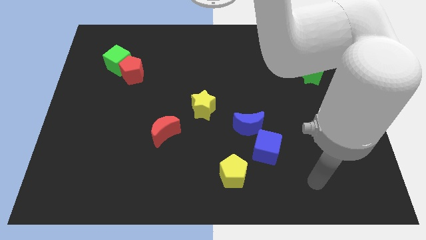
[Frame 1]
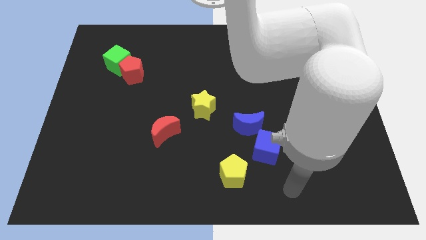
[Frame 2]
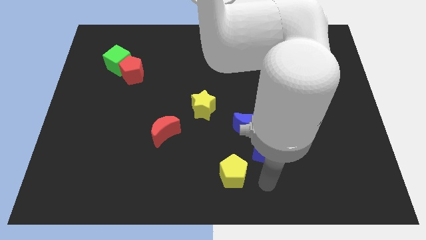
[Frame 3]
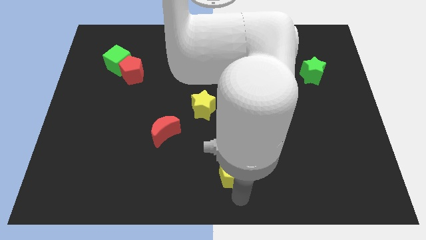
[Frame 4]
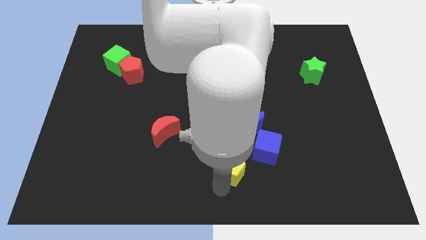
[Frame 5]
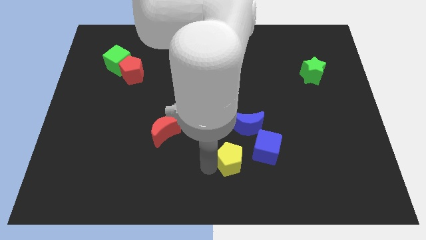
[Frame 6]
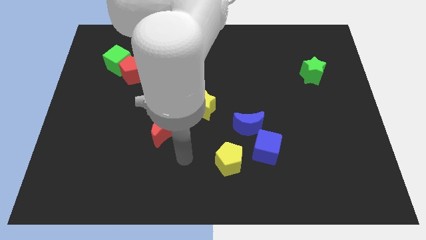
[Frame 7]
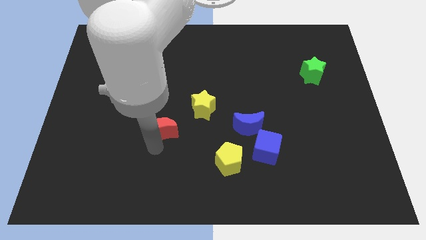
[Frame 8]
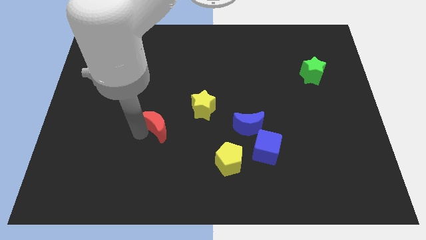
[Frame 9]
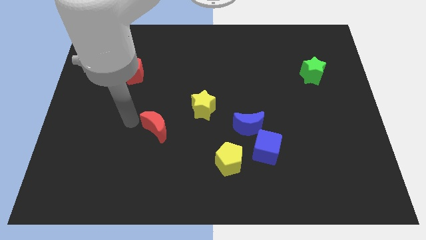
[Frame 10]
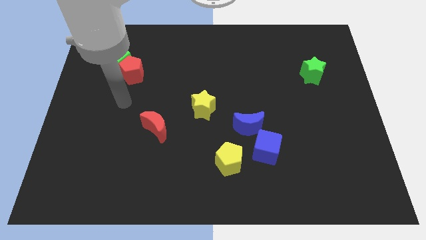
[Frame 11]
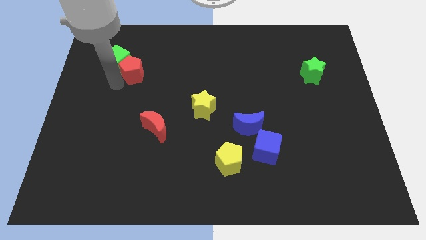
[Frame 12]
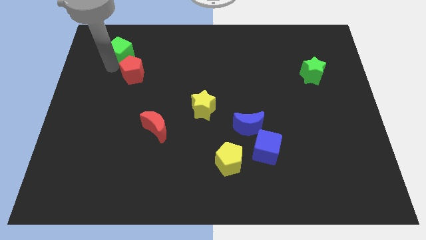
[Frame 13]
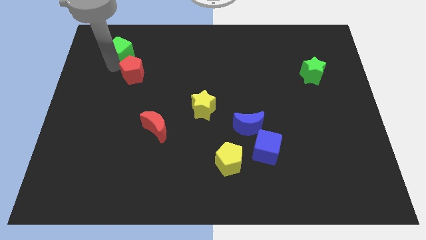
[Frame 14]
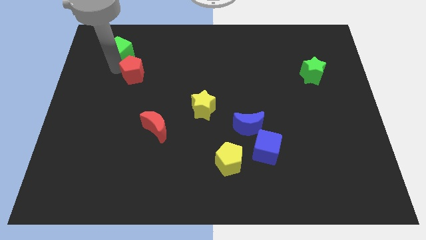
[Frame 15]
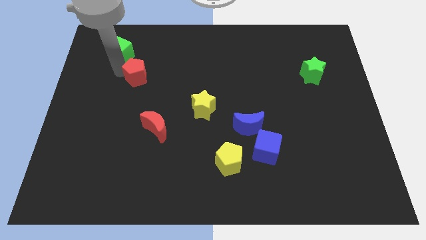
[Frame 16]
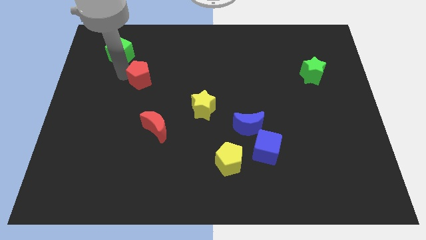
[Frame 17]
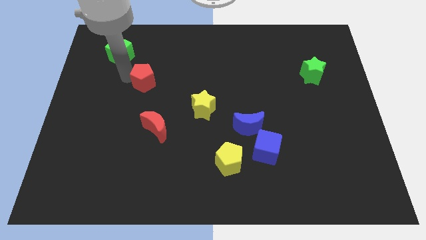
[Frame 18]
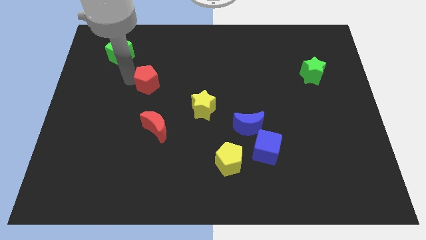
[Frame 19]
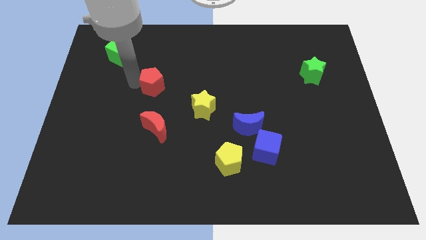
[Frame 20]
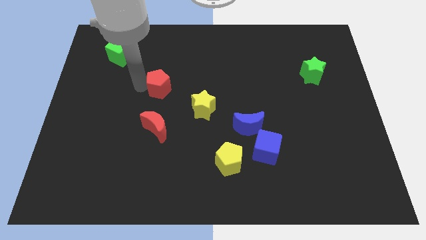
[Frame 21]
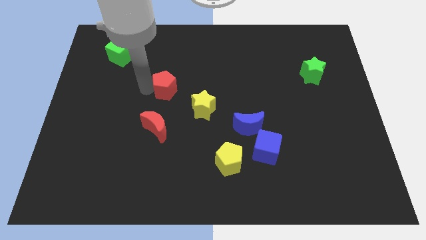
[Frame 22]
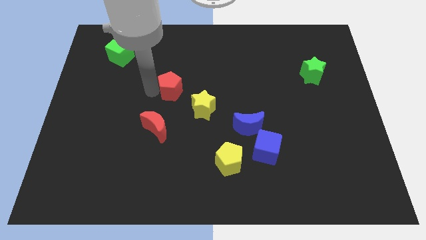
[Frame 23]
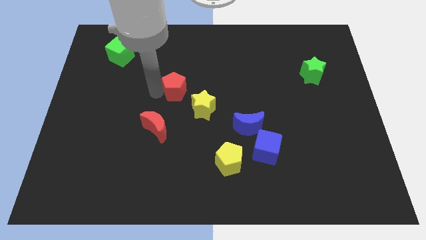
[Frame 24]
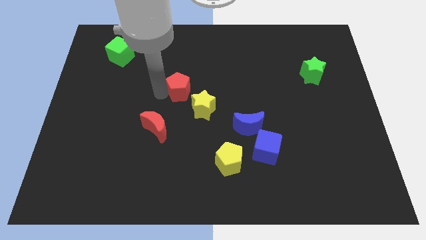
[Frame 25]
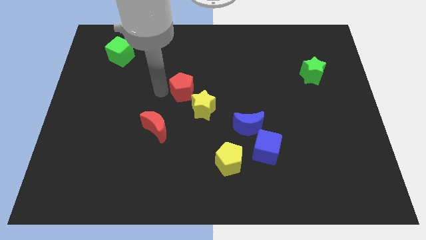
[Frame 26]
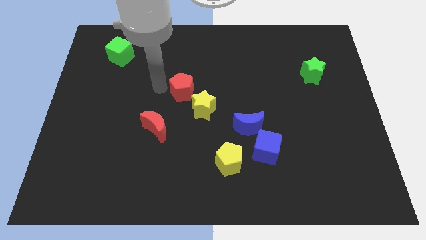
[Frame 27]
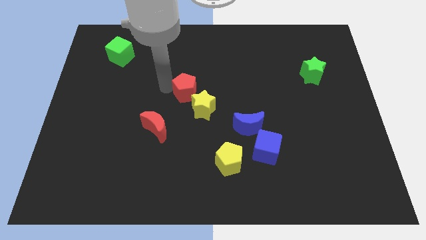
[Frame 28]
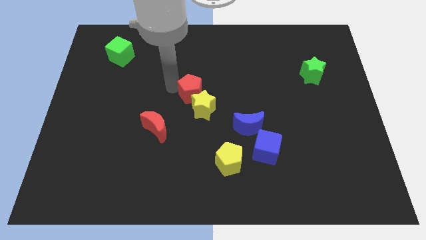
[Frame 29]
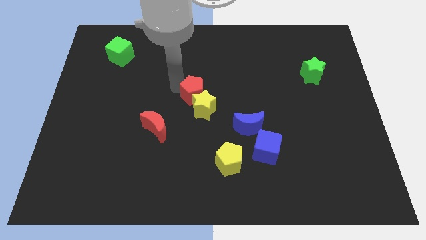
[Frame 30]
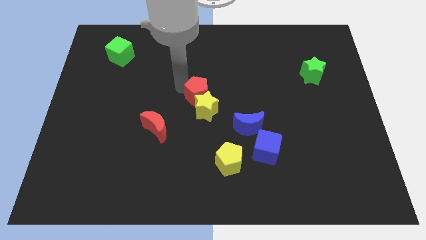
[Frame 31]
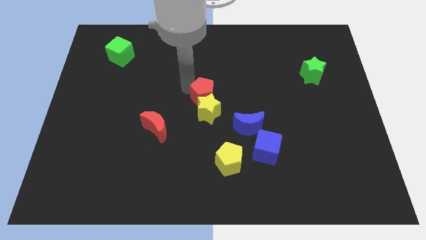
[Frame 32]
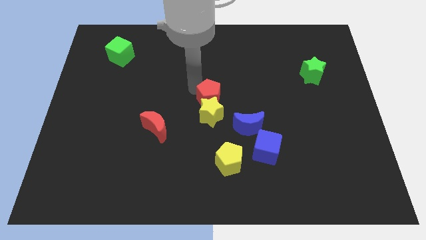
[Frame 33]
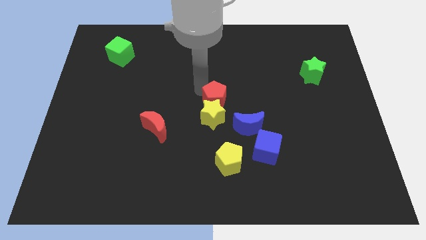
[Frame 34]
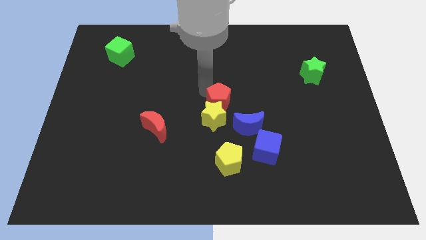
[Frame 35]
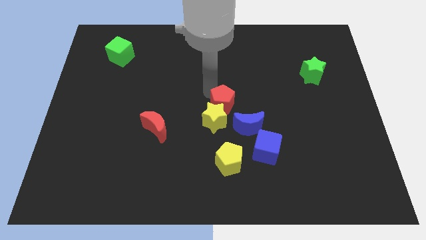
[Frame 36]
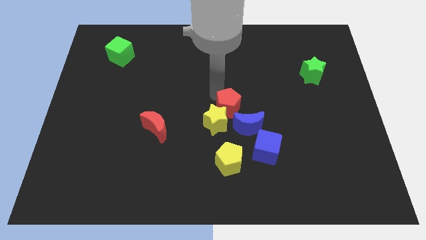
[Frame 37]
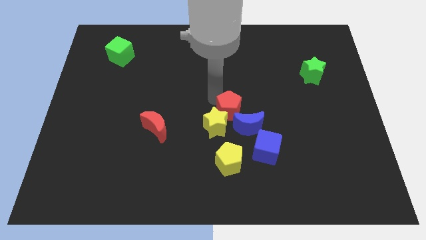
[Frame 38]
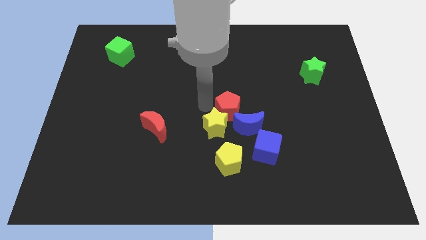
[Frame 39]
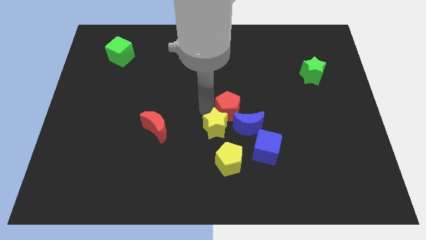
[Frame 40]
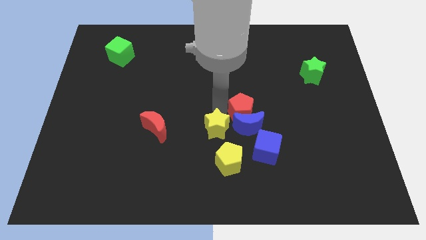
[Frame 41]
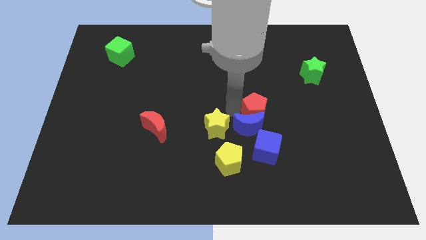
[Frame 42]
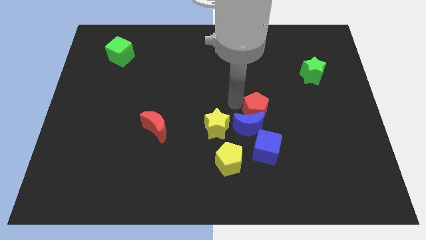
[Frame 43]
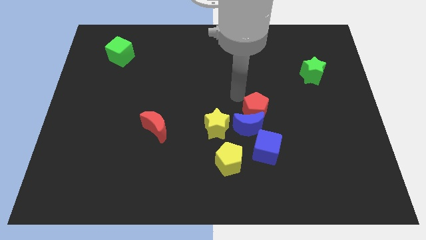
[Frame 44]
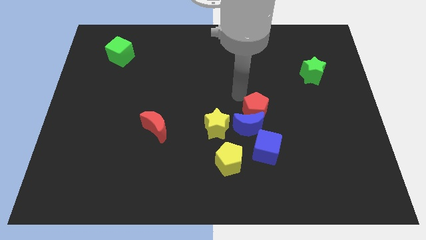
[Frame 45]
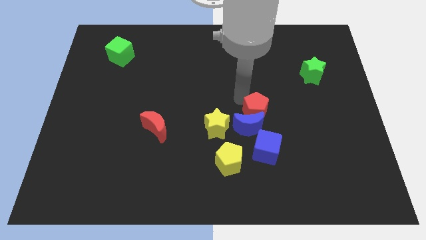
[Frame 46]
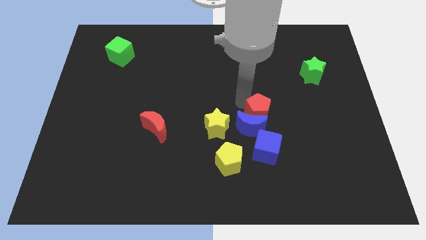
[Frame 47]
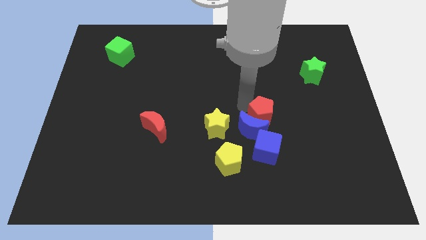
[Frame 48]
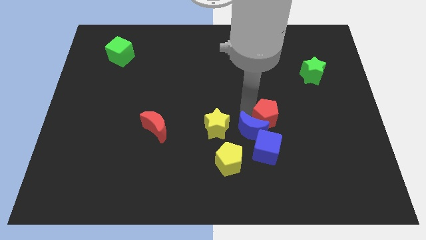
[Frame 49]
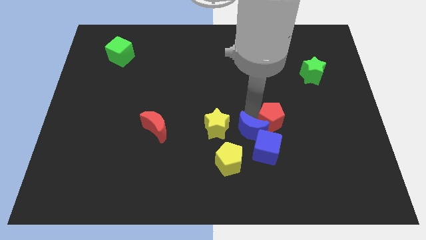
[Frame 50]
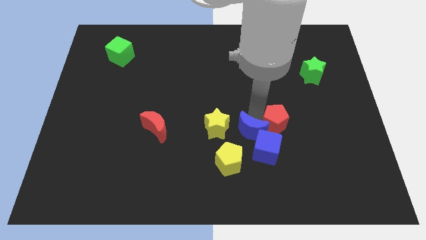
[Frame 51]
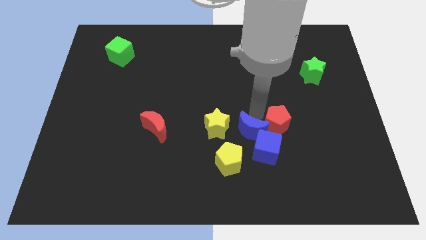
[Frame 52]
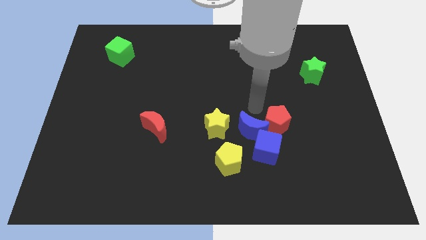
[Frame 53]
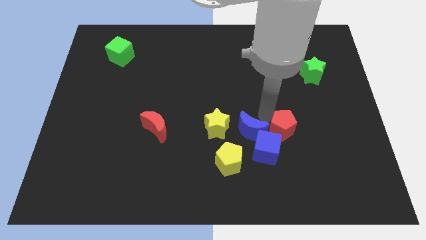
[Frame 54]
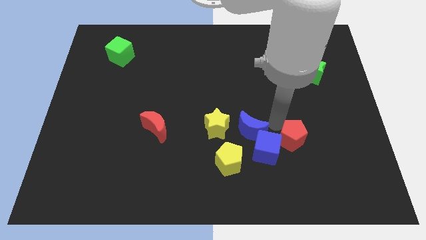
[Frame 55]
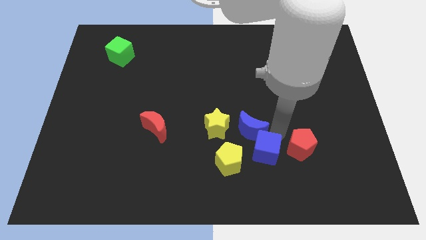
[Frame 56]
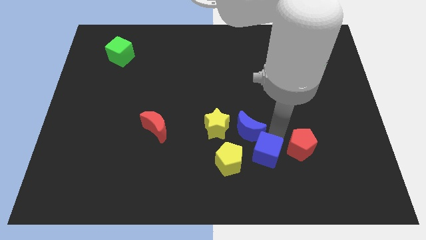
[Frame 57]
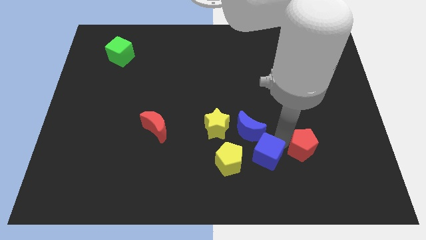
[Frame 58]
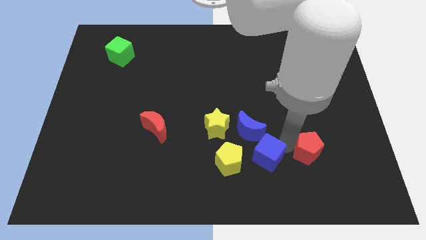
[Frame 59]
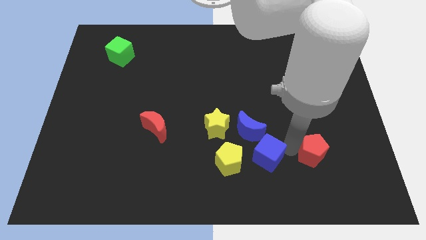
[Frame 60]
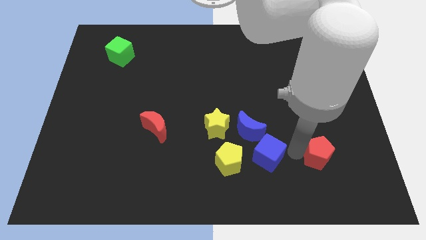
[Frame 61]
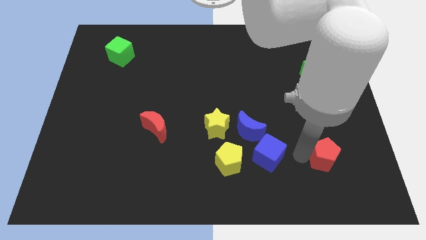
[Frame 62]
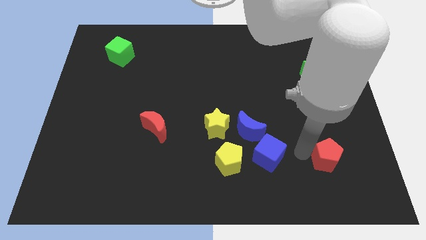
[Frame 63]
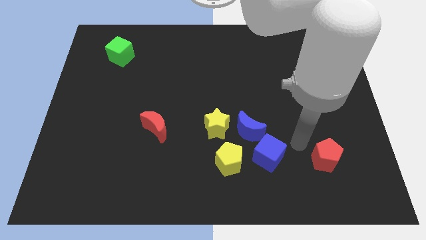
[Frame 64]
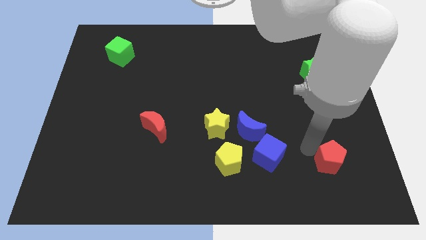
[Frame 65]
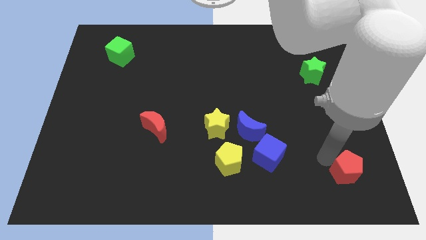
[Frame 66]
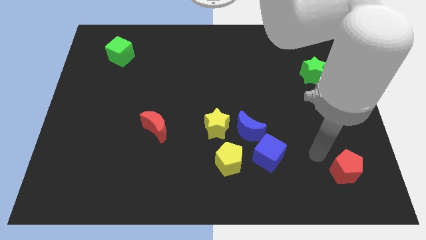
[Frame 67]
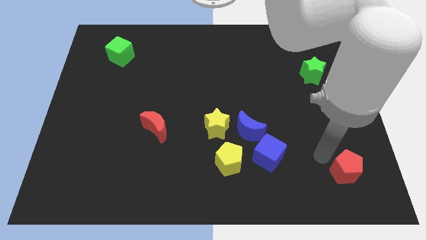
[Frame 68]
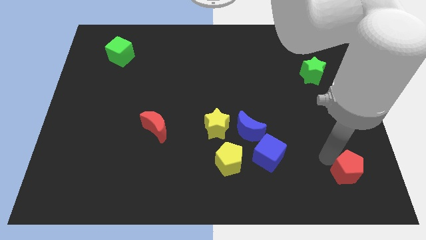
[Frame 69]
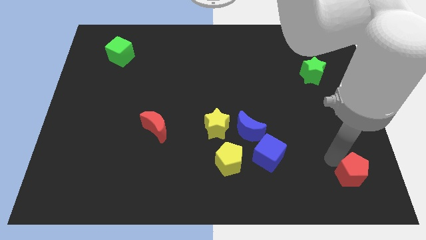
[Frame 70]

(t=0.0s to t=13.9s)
slide the red pentagon to the bottom right of the board
